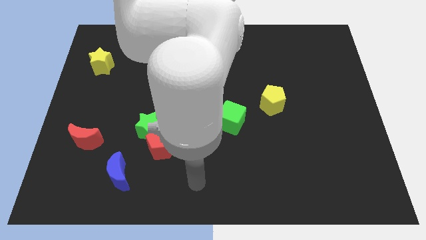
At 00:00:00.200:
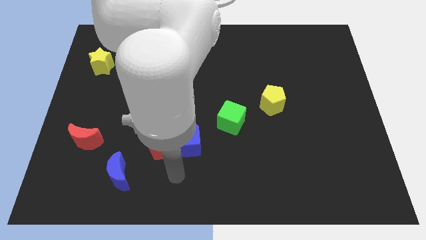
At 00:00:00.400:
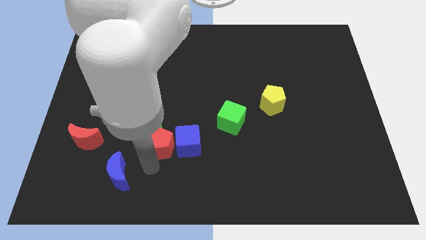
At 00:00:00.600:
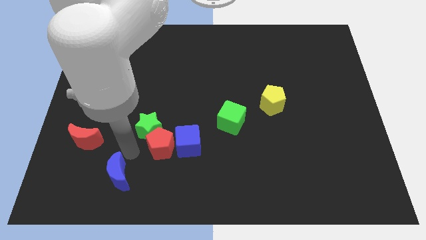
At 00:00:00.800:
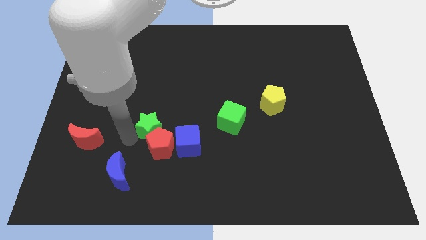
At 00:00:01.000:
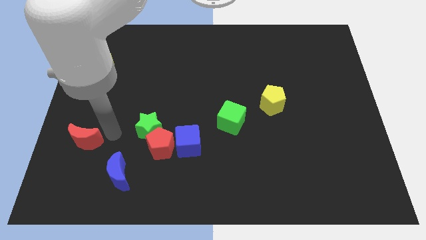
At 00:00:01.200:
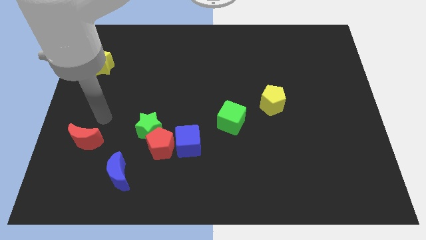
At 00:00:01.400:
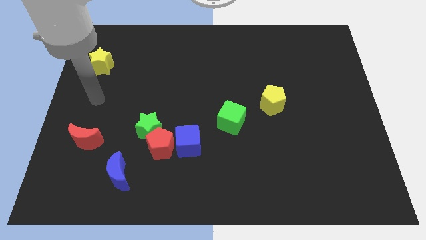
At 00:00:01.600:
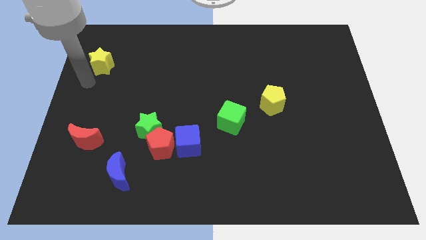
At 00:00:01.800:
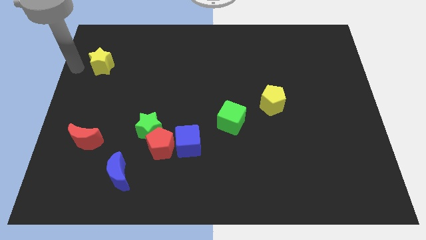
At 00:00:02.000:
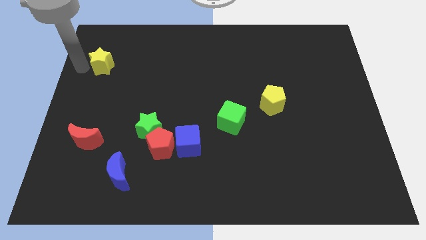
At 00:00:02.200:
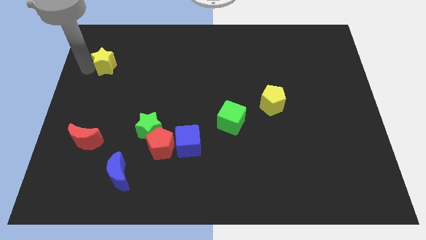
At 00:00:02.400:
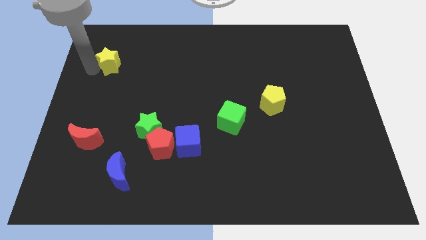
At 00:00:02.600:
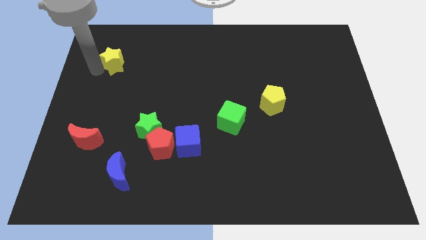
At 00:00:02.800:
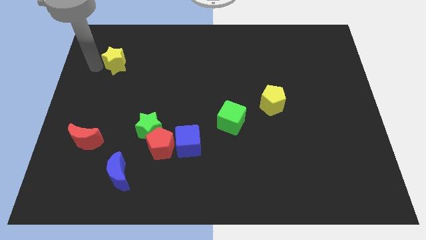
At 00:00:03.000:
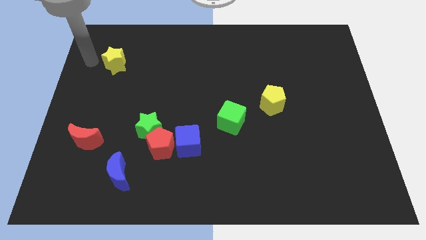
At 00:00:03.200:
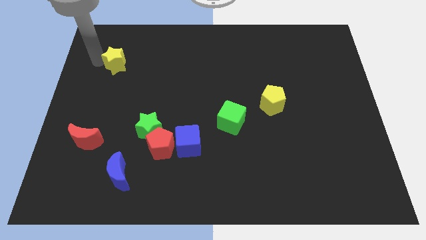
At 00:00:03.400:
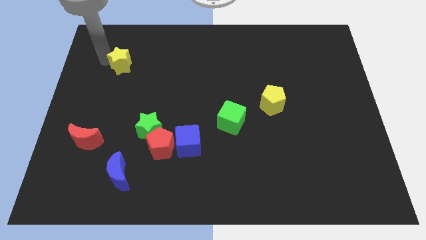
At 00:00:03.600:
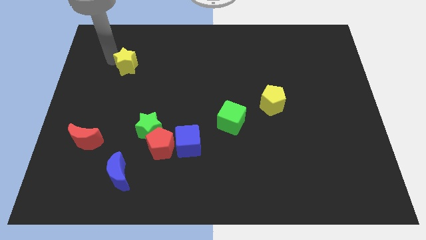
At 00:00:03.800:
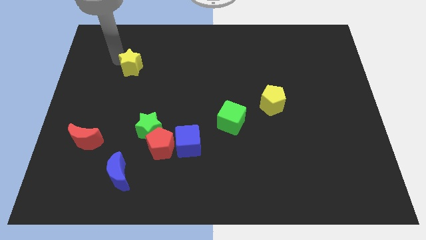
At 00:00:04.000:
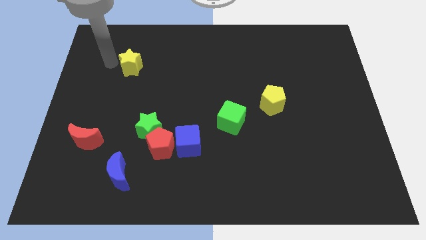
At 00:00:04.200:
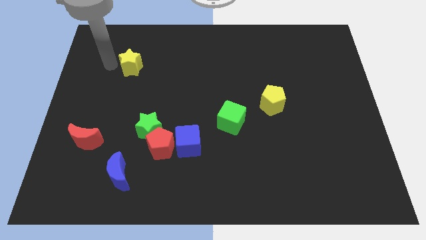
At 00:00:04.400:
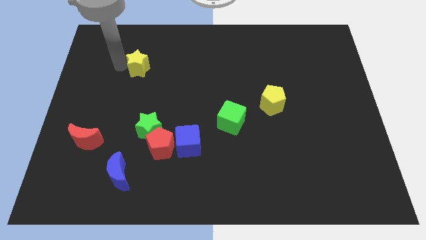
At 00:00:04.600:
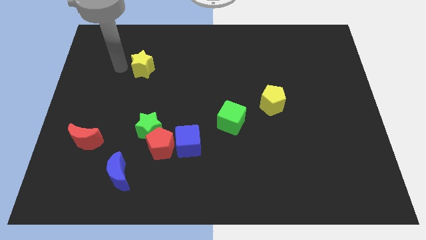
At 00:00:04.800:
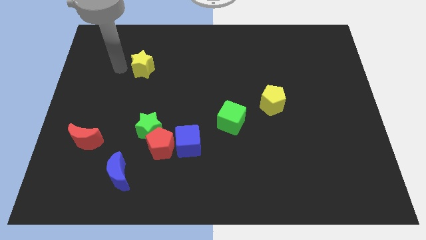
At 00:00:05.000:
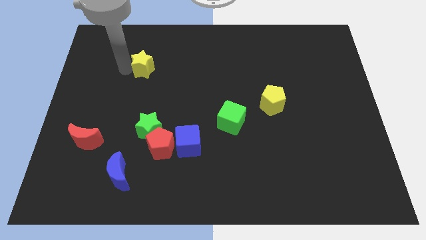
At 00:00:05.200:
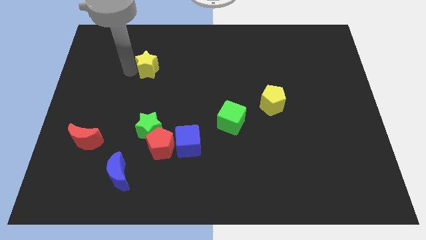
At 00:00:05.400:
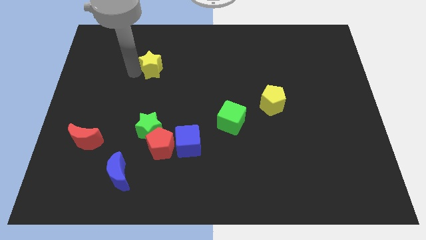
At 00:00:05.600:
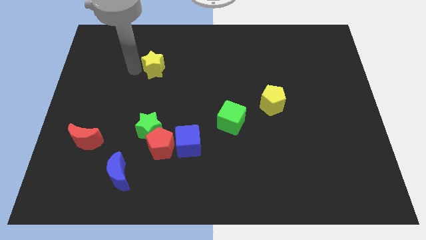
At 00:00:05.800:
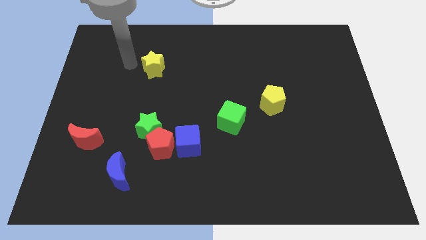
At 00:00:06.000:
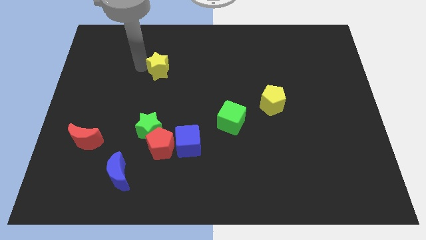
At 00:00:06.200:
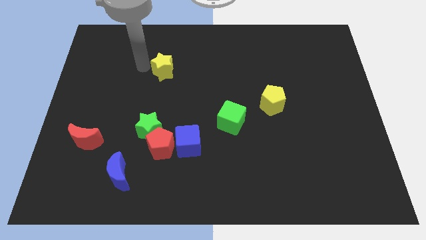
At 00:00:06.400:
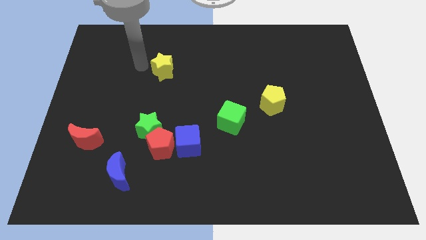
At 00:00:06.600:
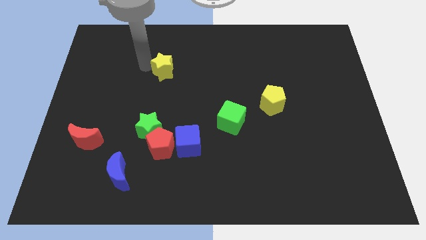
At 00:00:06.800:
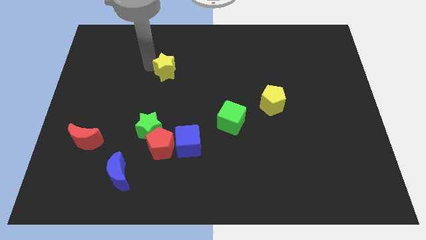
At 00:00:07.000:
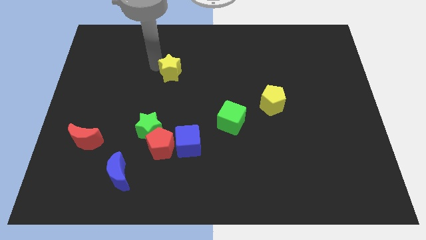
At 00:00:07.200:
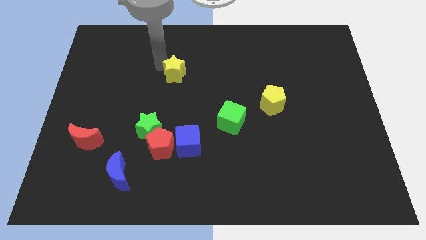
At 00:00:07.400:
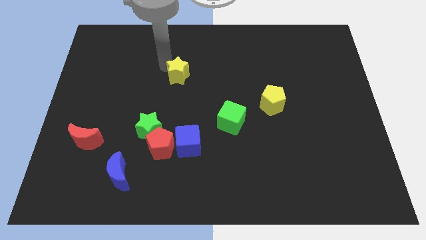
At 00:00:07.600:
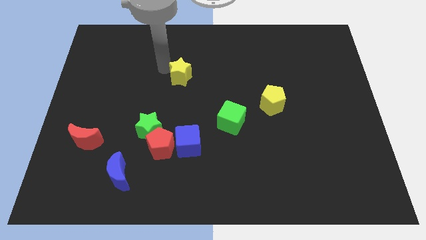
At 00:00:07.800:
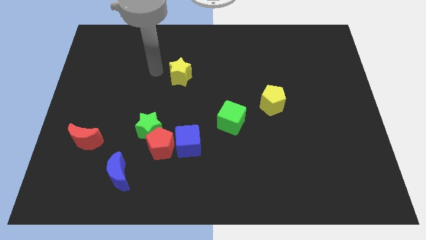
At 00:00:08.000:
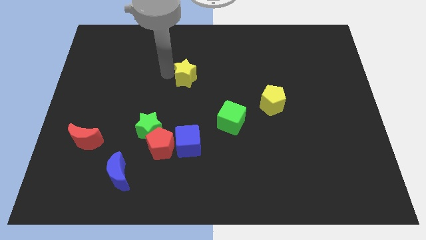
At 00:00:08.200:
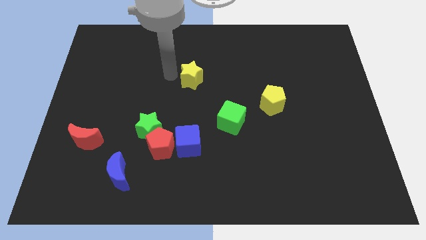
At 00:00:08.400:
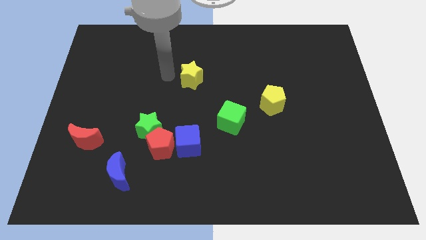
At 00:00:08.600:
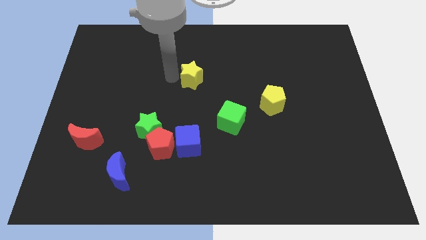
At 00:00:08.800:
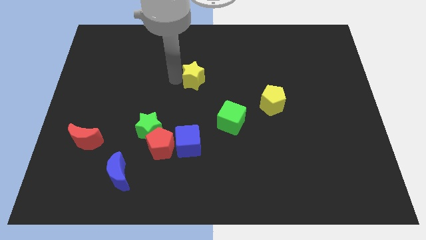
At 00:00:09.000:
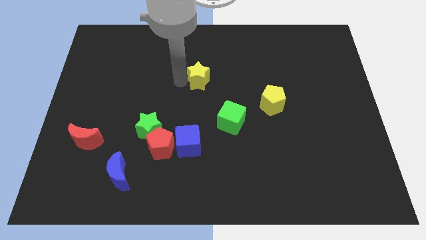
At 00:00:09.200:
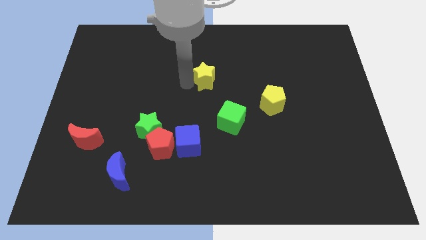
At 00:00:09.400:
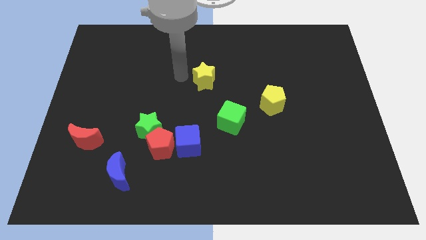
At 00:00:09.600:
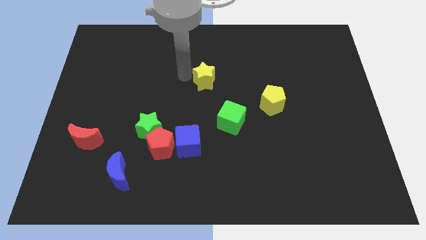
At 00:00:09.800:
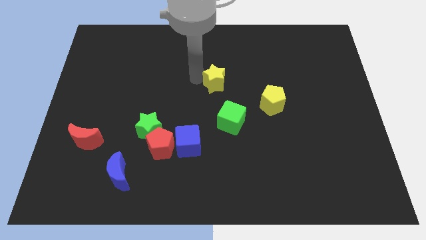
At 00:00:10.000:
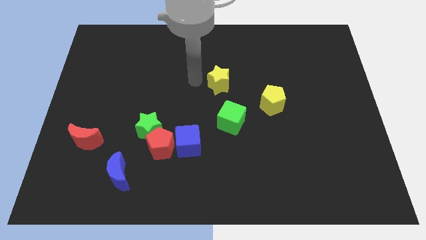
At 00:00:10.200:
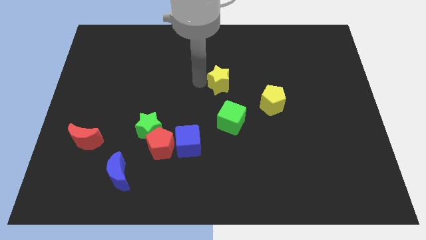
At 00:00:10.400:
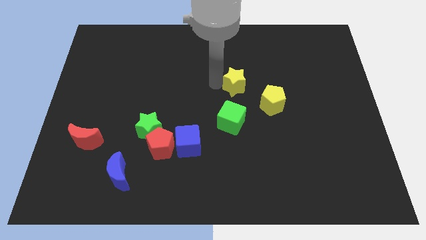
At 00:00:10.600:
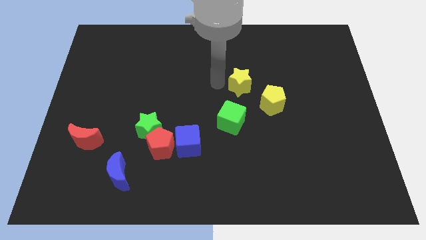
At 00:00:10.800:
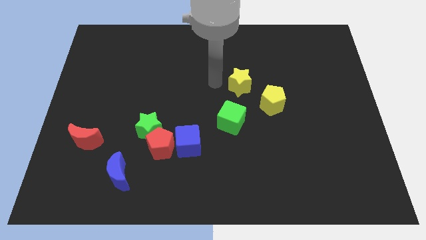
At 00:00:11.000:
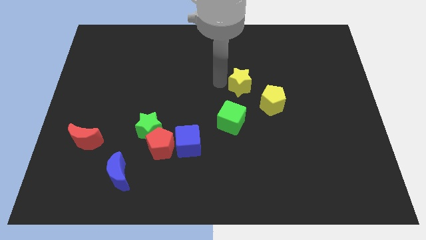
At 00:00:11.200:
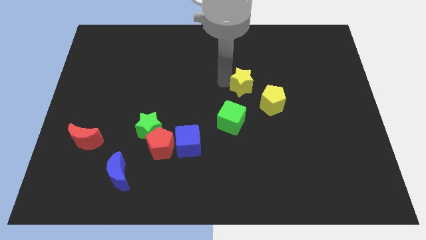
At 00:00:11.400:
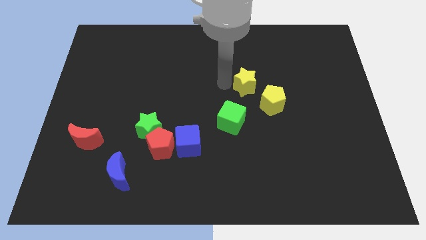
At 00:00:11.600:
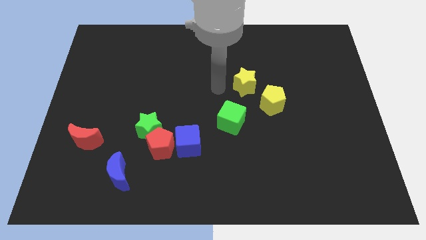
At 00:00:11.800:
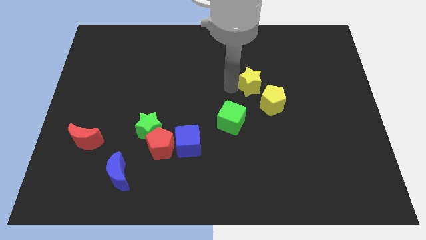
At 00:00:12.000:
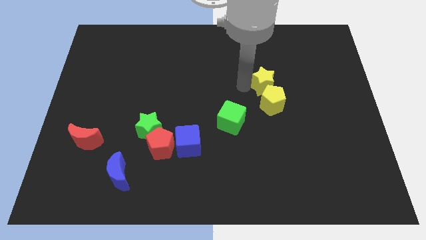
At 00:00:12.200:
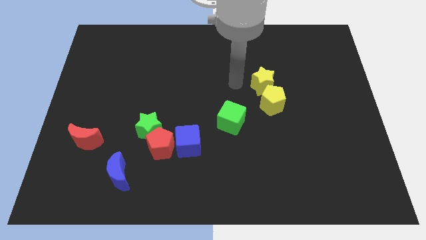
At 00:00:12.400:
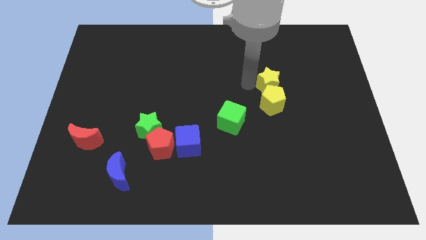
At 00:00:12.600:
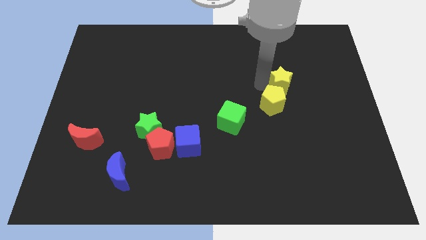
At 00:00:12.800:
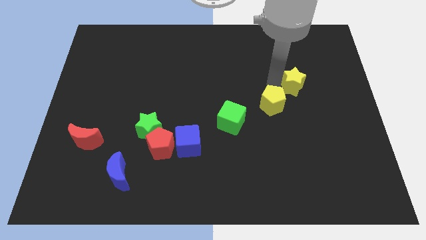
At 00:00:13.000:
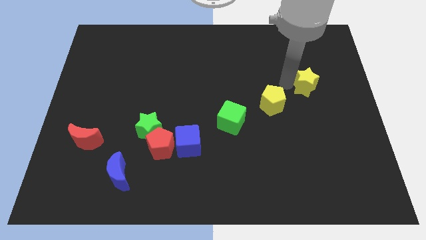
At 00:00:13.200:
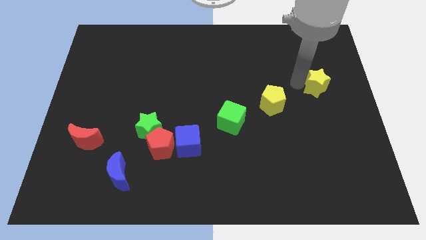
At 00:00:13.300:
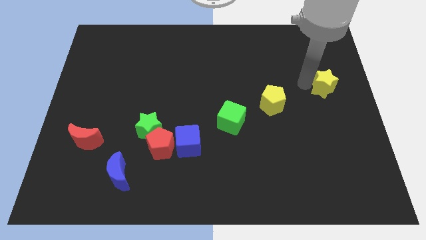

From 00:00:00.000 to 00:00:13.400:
move the yellow star to the right side of the board
